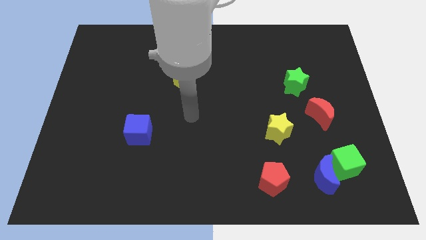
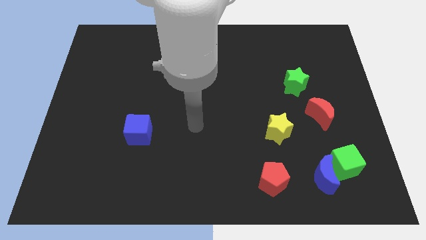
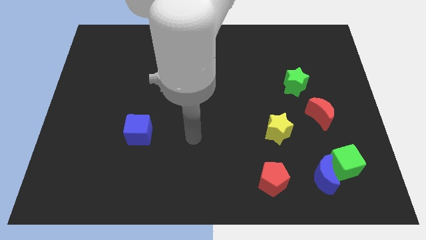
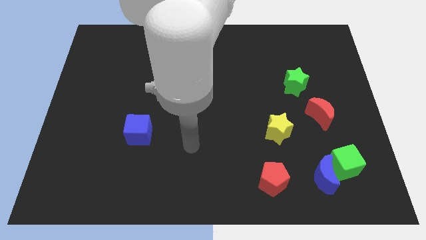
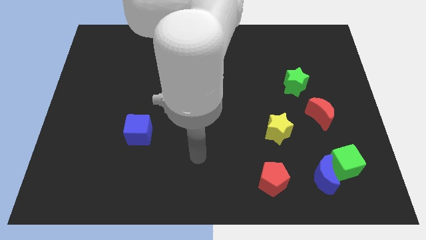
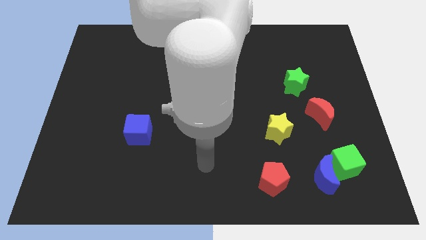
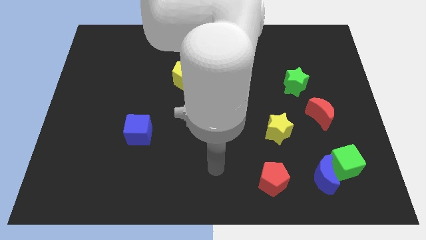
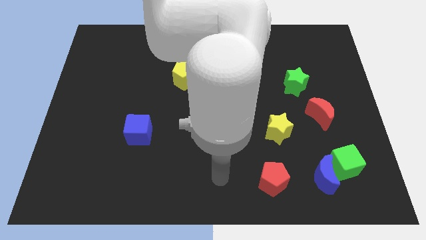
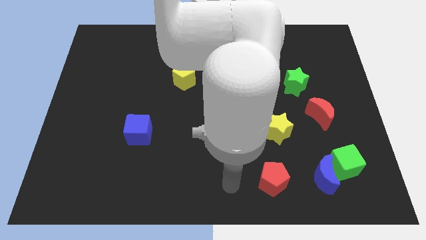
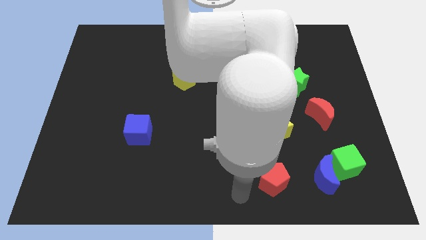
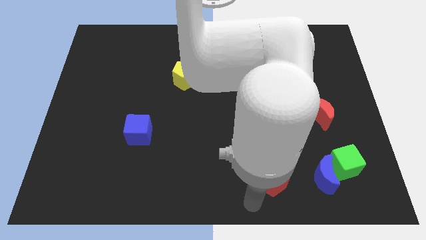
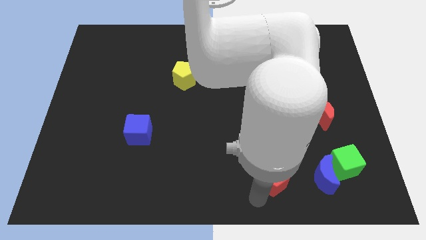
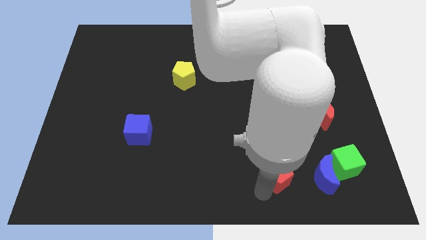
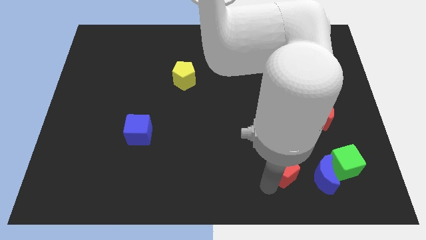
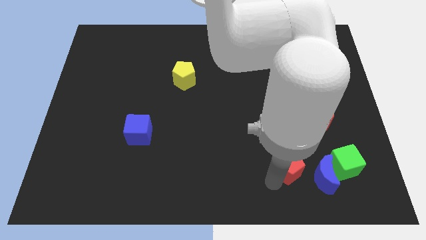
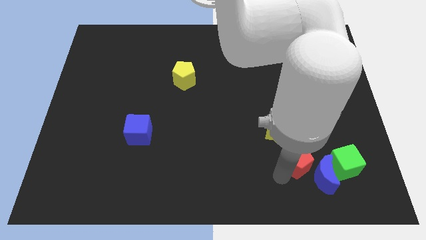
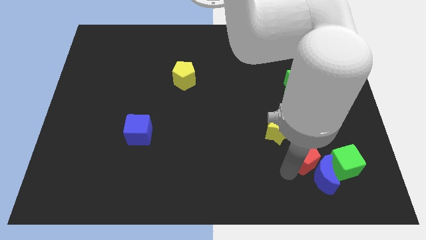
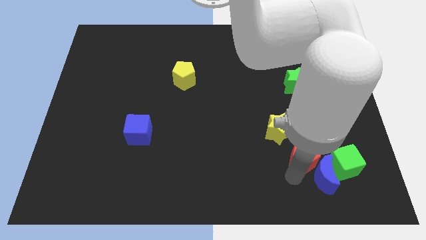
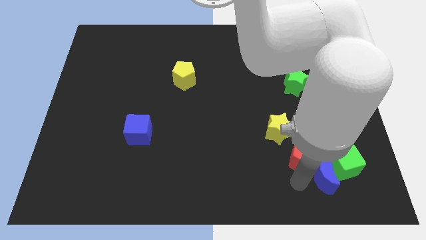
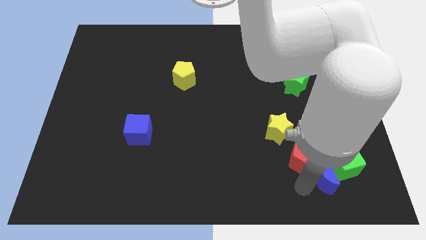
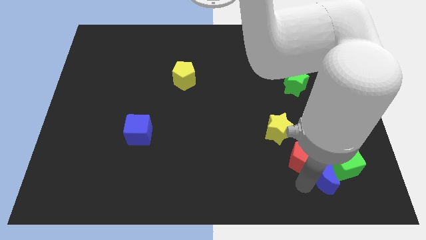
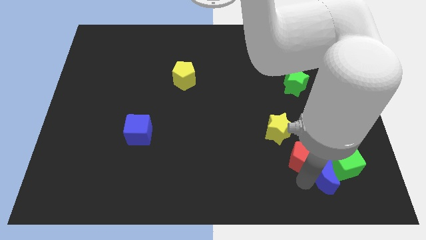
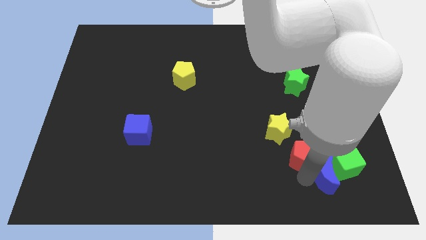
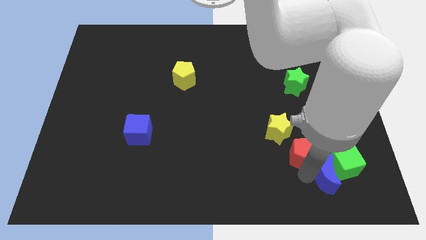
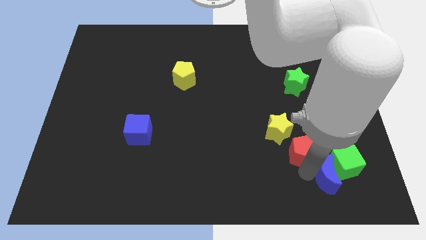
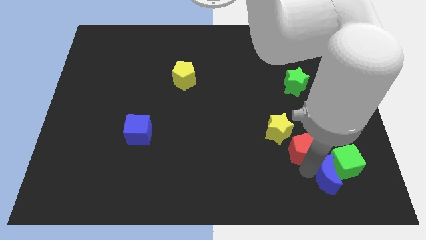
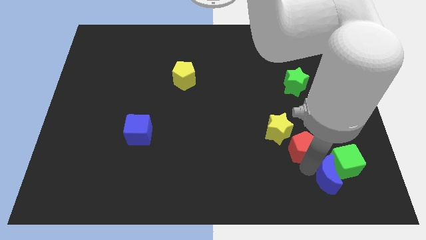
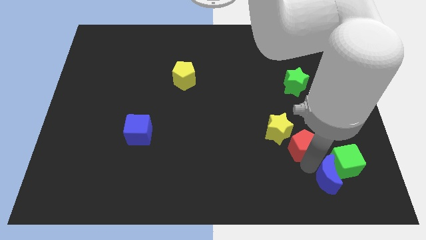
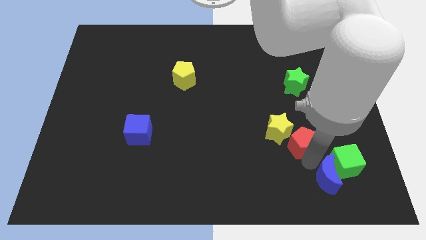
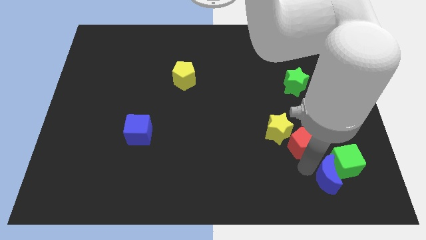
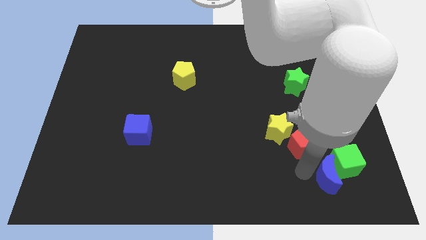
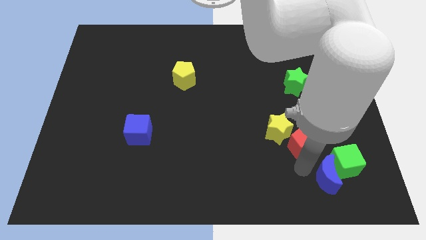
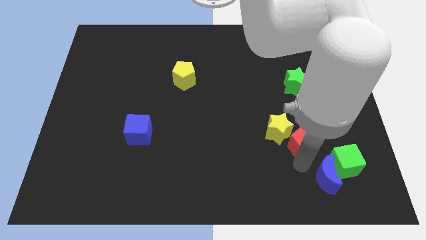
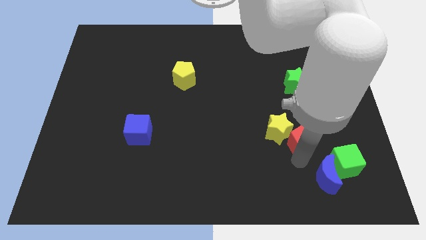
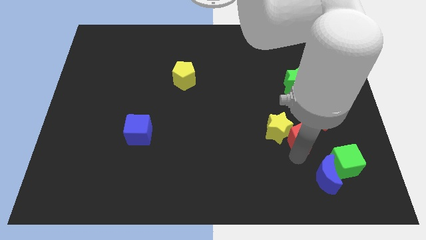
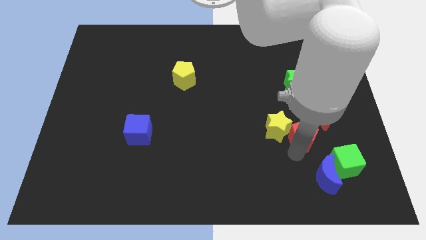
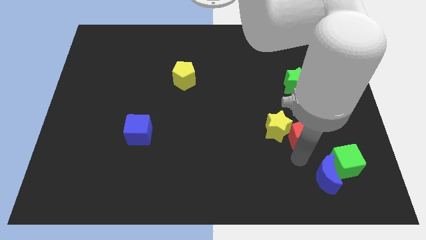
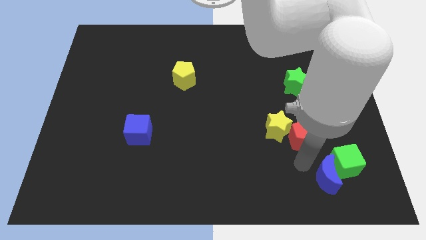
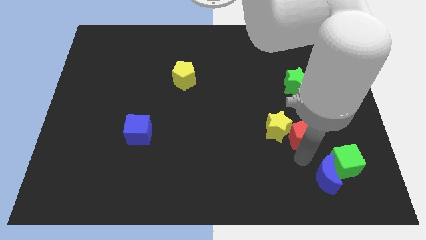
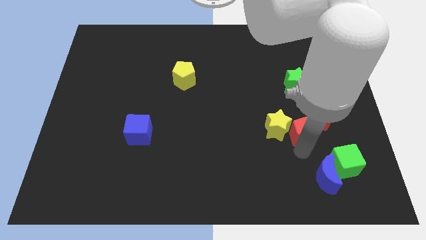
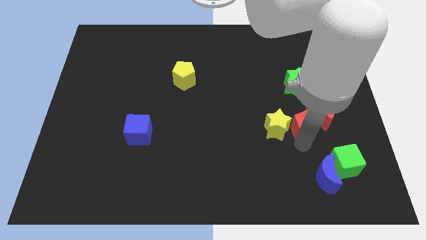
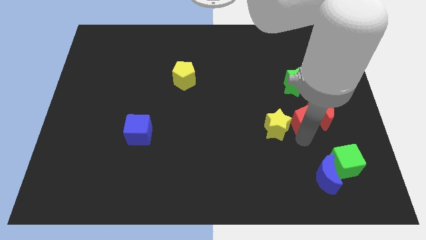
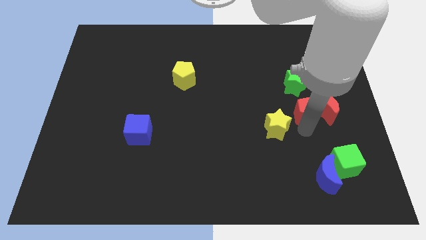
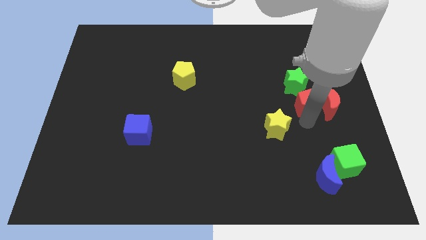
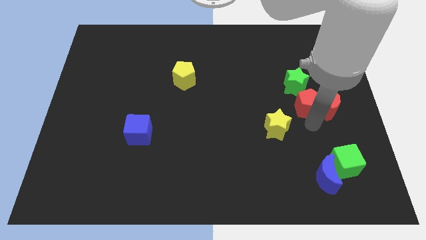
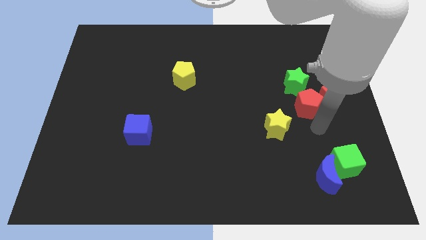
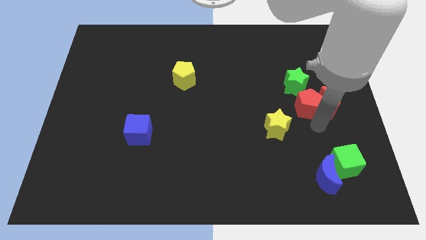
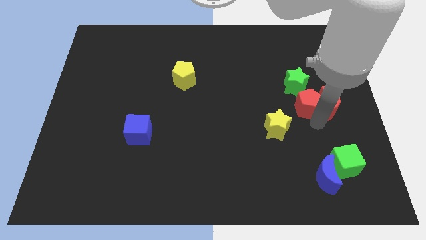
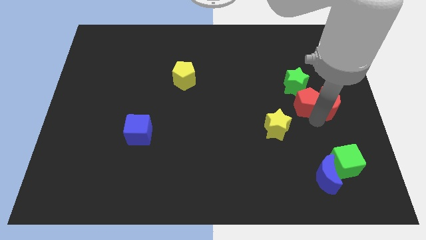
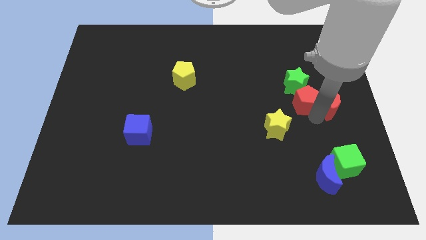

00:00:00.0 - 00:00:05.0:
move the red pentagon close to the green star

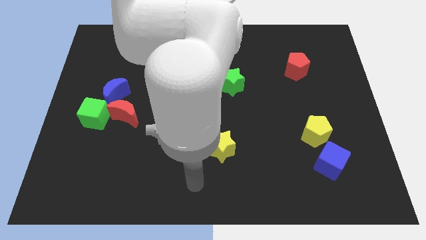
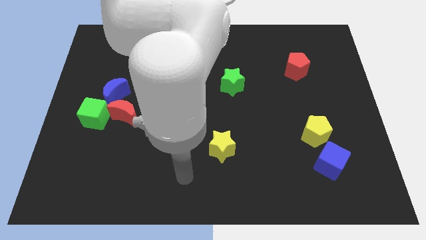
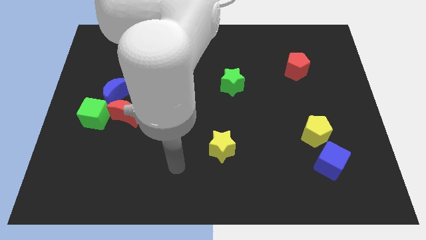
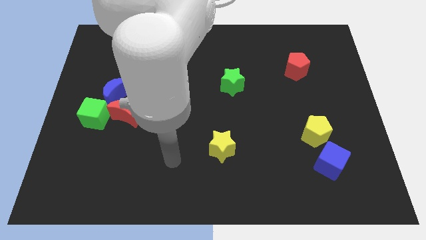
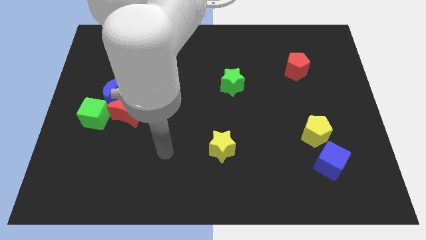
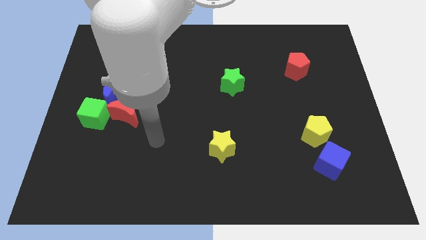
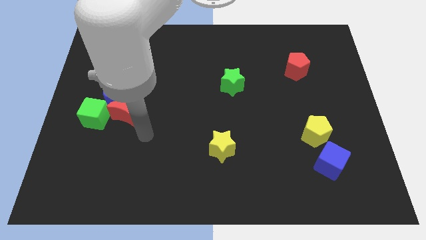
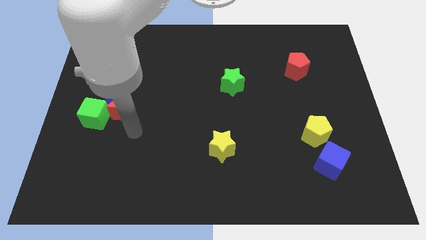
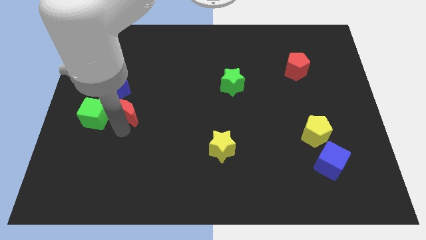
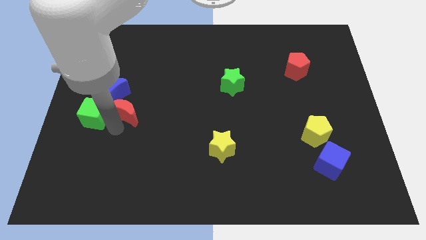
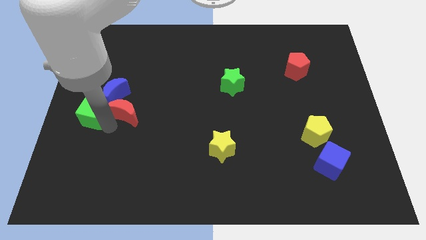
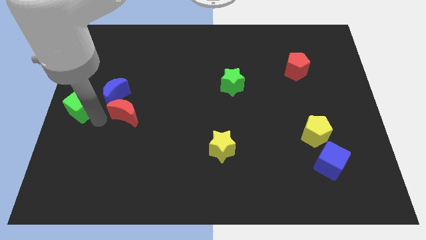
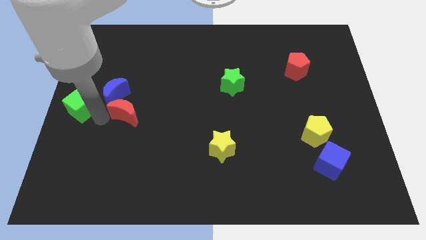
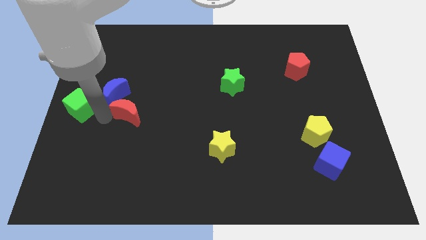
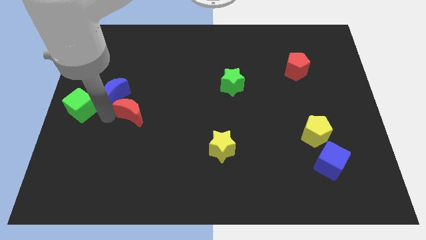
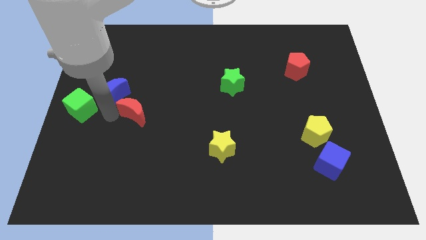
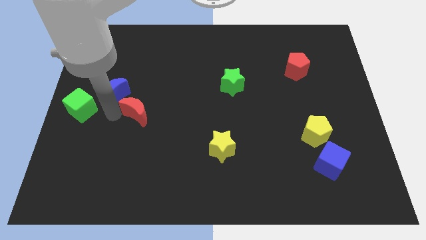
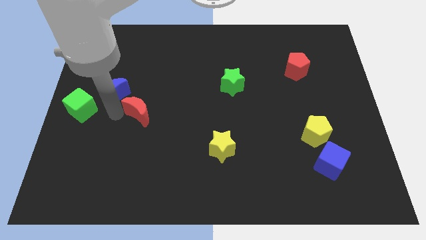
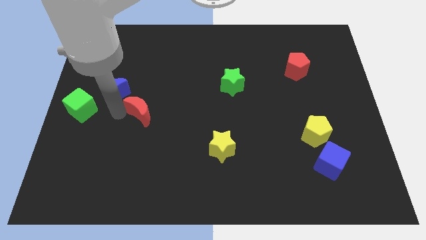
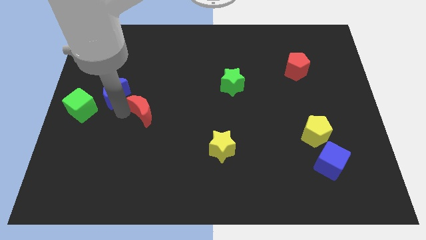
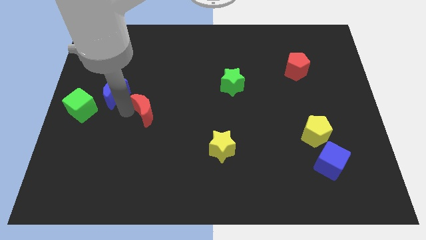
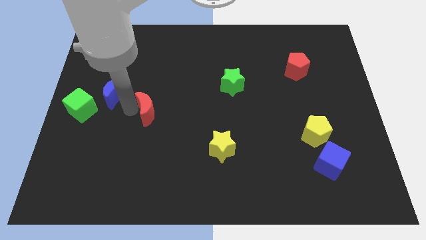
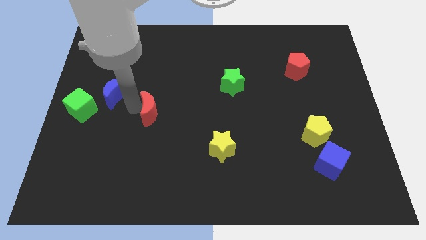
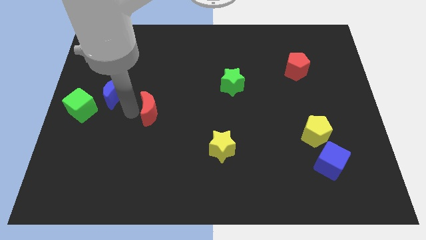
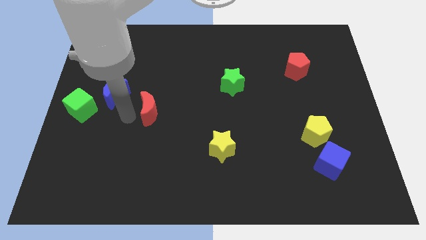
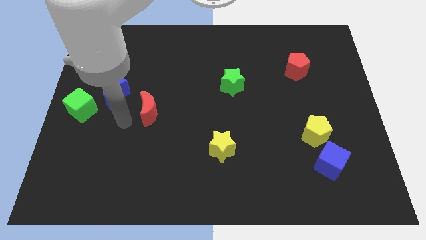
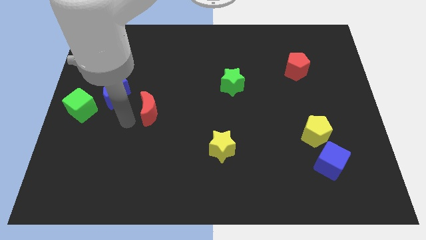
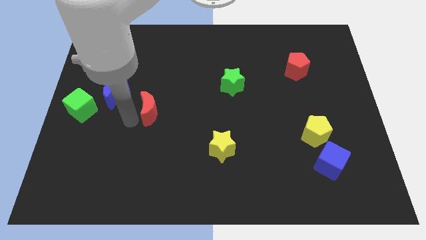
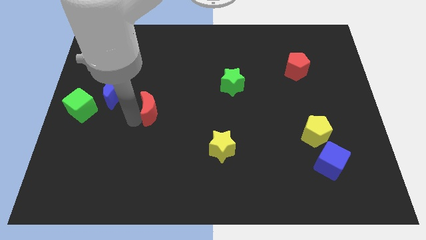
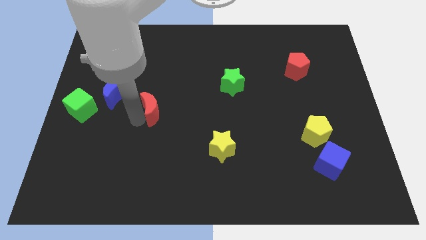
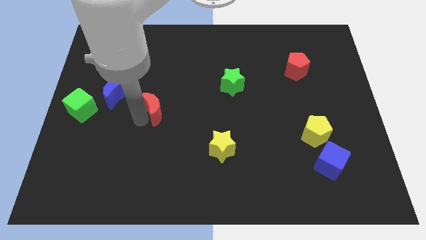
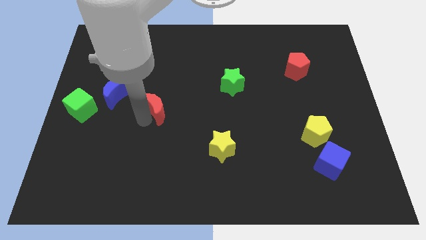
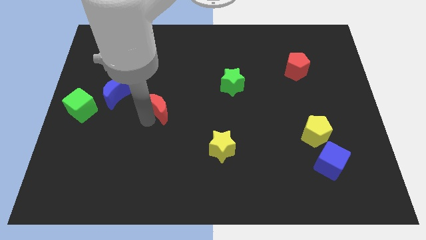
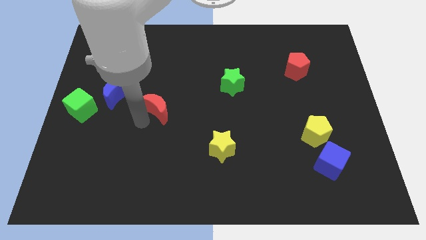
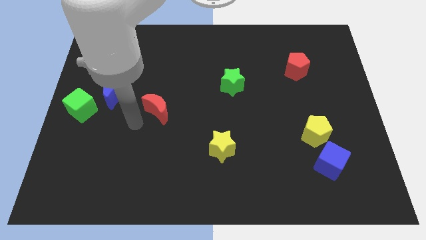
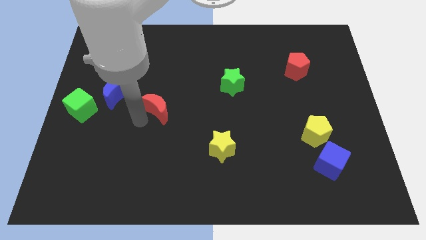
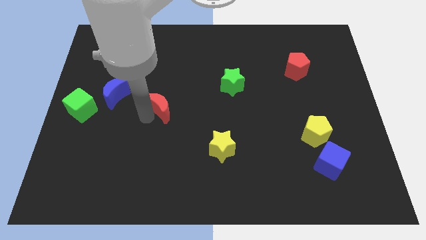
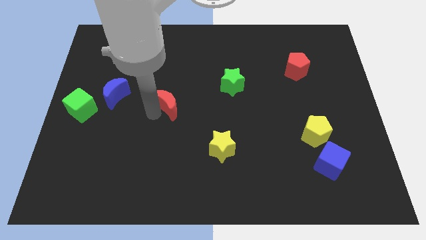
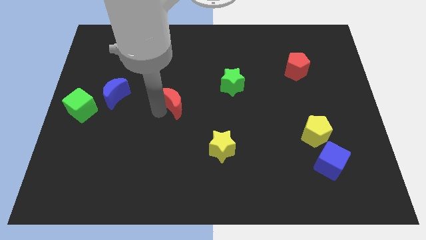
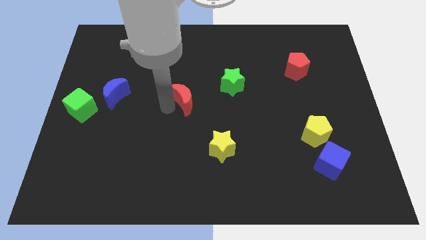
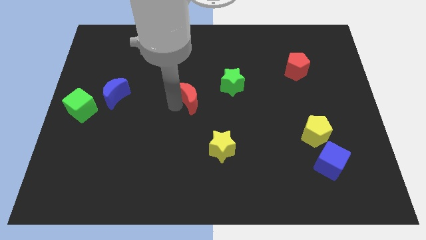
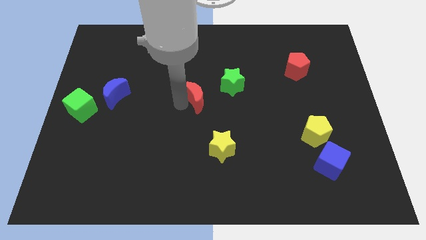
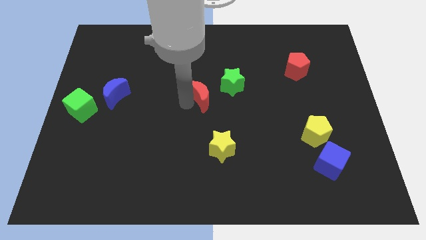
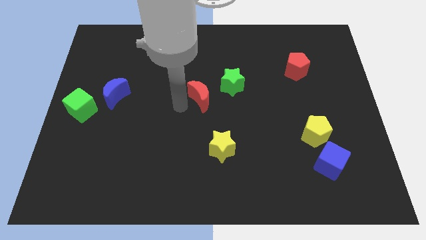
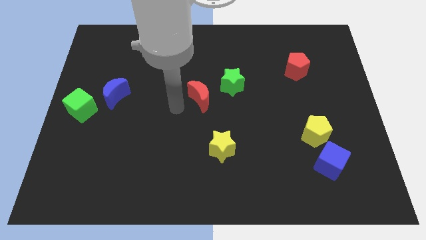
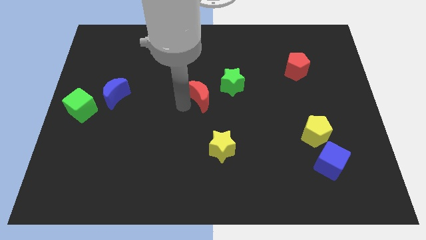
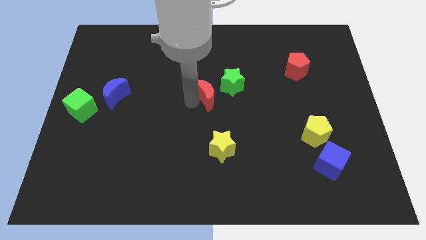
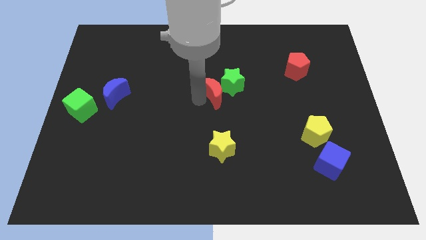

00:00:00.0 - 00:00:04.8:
slide the red moon next to the green star
